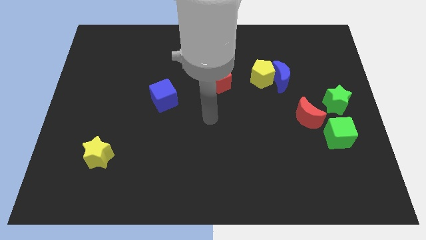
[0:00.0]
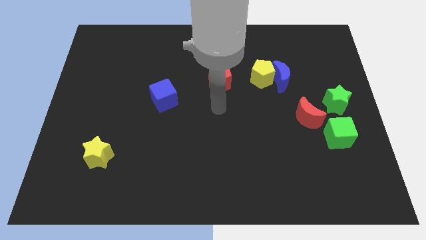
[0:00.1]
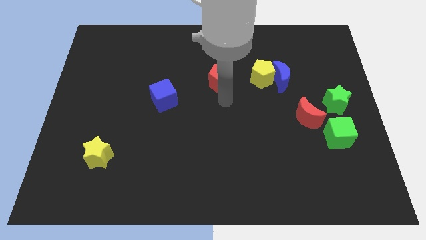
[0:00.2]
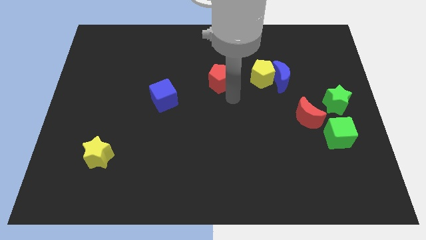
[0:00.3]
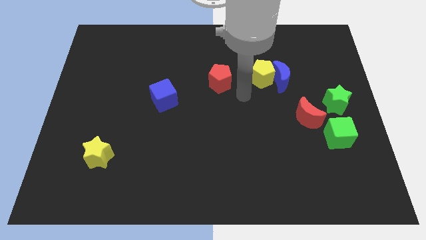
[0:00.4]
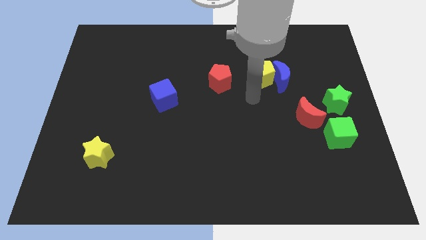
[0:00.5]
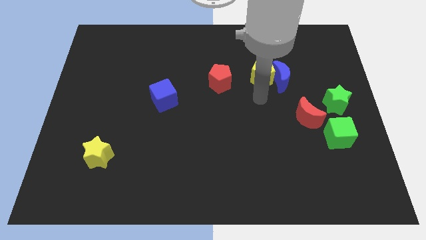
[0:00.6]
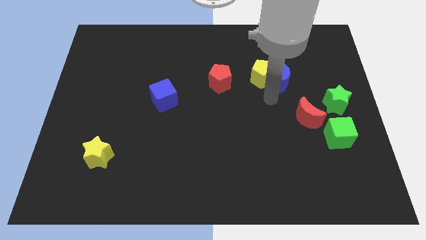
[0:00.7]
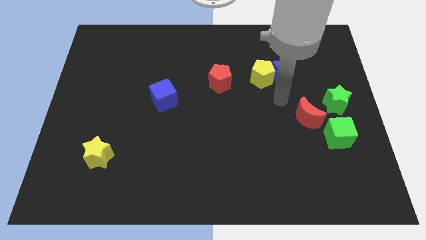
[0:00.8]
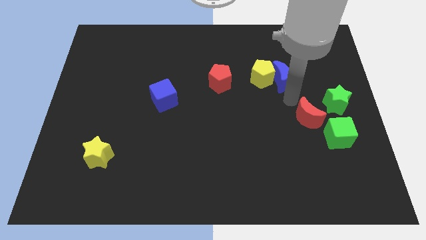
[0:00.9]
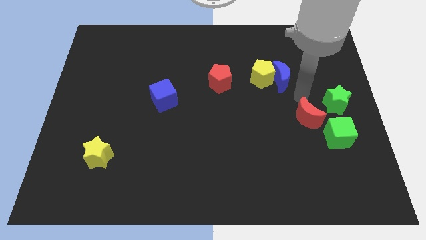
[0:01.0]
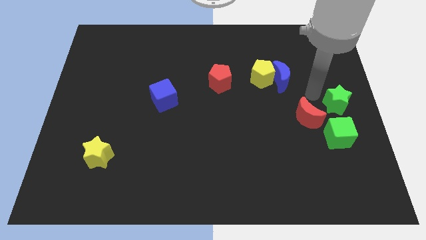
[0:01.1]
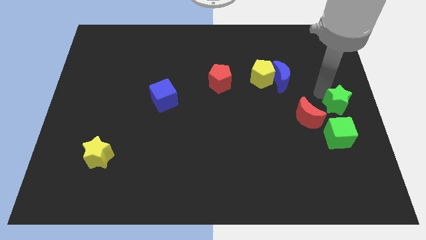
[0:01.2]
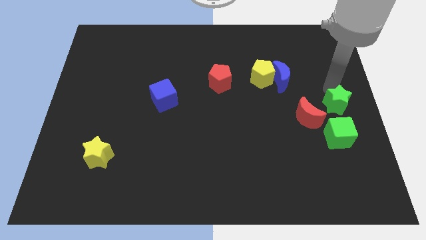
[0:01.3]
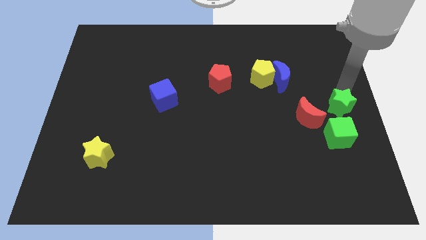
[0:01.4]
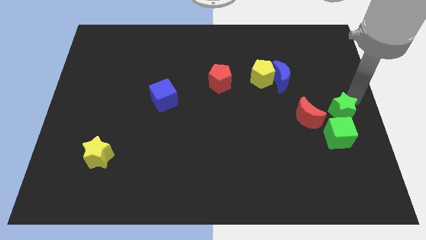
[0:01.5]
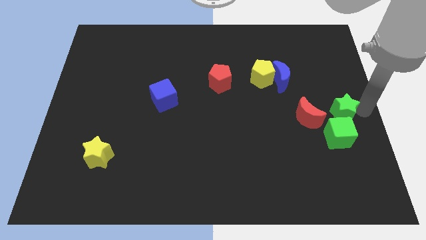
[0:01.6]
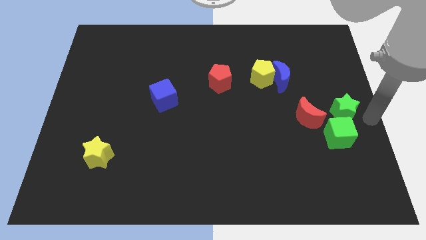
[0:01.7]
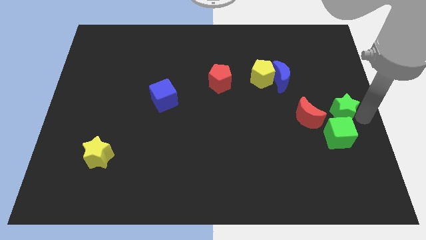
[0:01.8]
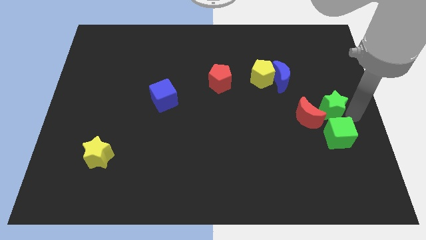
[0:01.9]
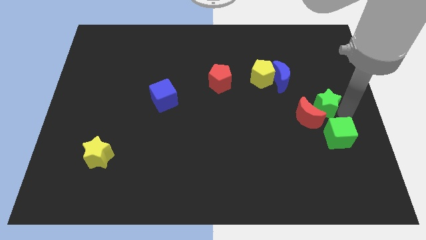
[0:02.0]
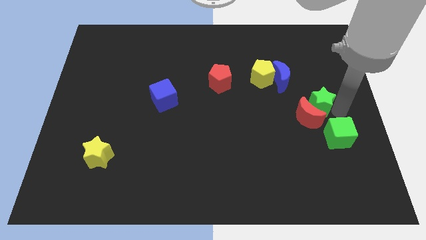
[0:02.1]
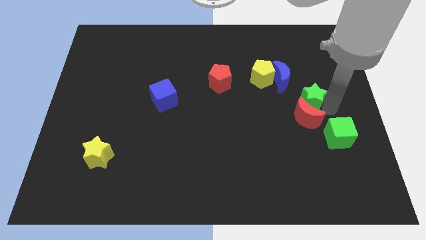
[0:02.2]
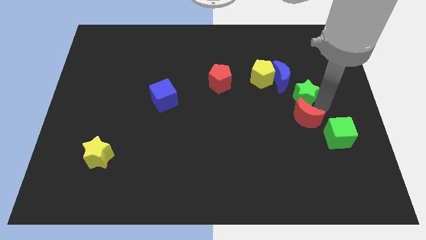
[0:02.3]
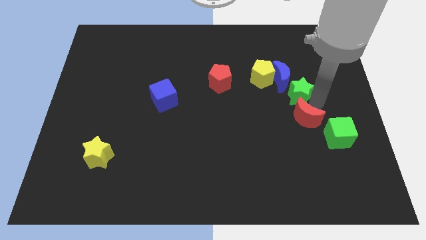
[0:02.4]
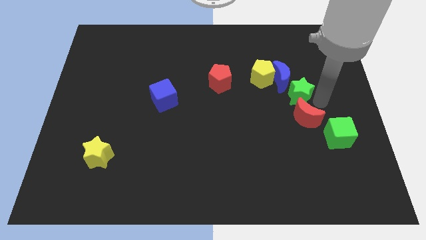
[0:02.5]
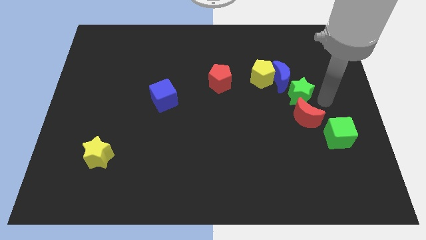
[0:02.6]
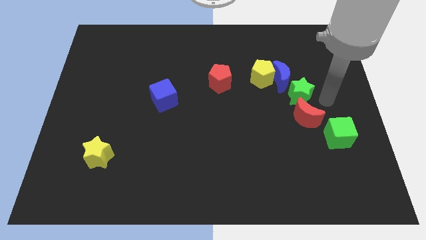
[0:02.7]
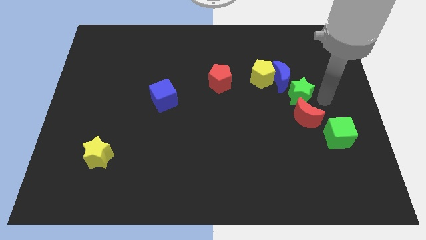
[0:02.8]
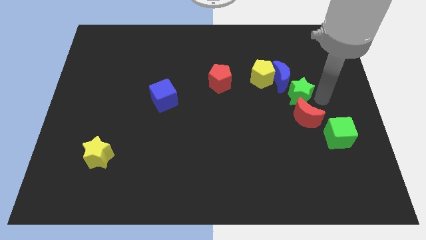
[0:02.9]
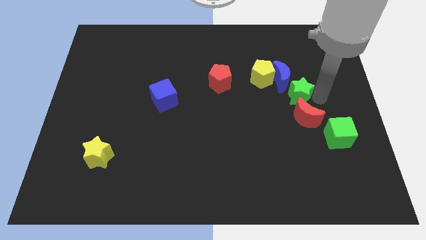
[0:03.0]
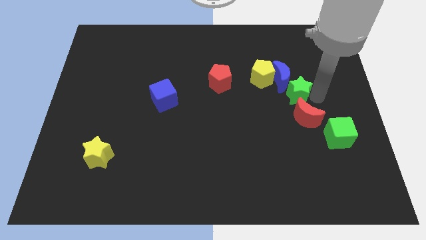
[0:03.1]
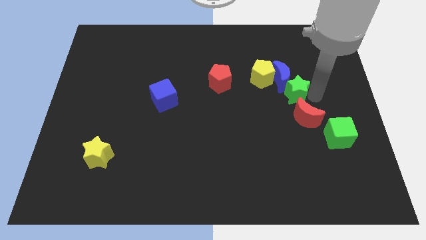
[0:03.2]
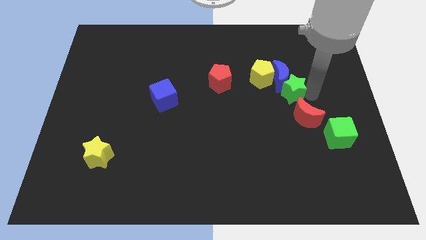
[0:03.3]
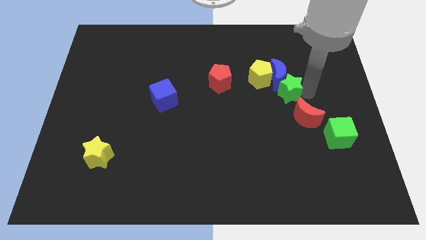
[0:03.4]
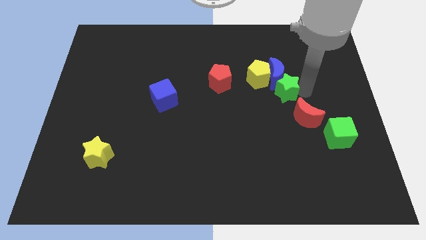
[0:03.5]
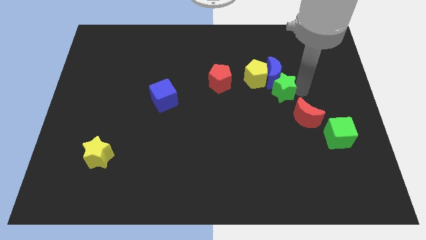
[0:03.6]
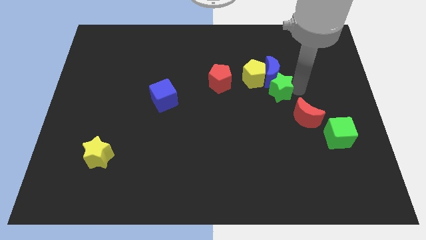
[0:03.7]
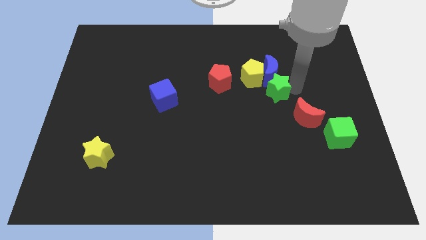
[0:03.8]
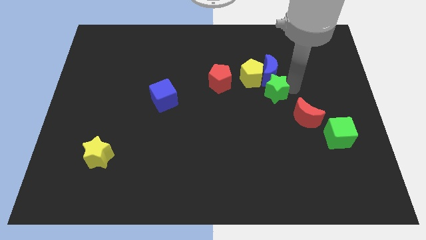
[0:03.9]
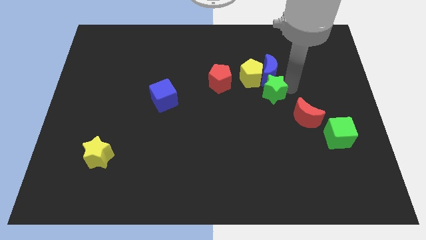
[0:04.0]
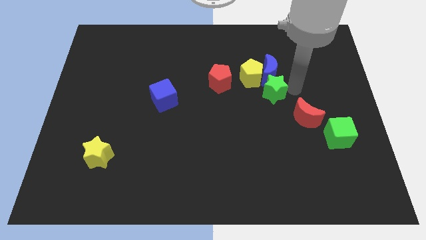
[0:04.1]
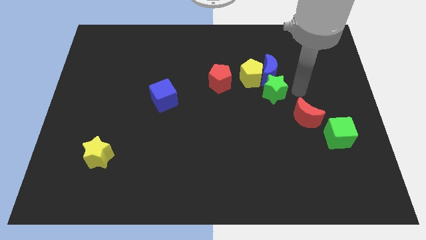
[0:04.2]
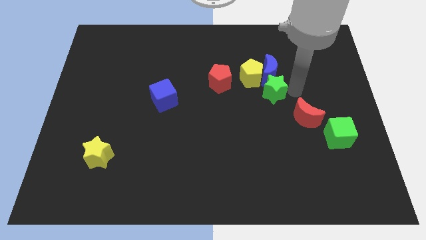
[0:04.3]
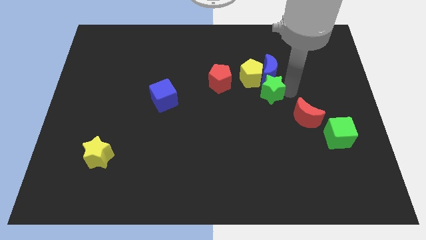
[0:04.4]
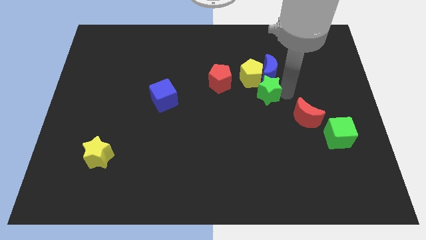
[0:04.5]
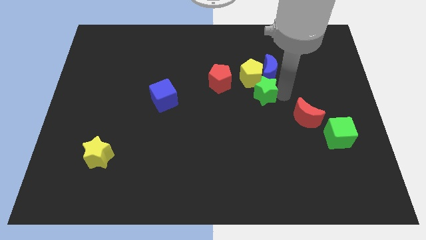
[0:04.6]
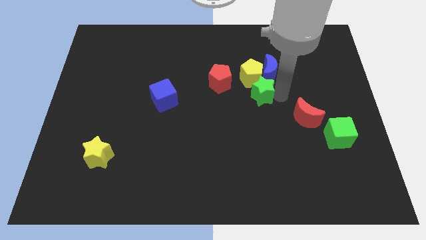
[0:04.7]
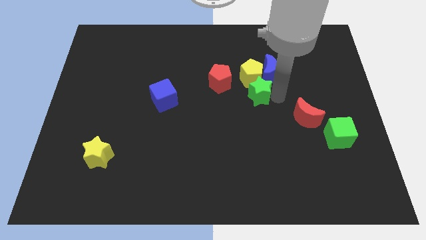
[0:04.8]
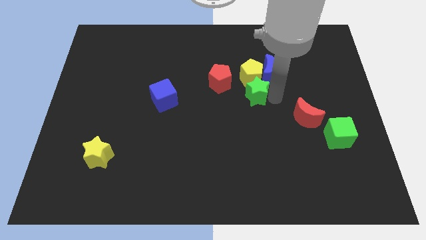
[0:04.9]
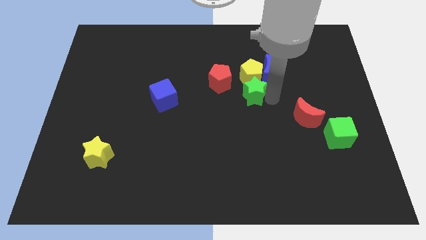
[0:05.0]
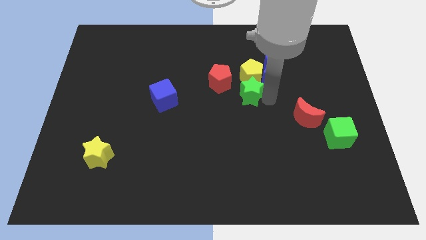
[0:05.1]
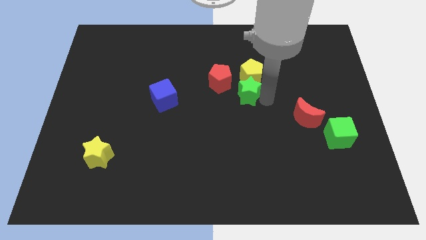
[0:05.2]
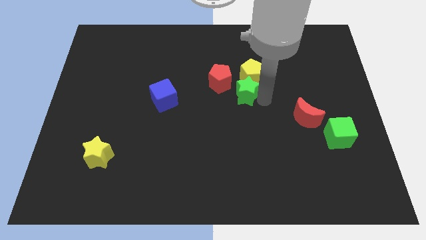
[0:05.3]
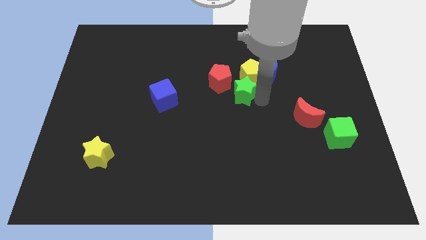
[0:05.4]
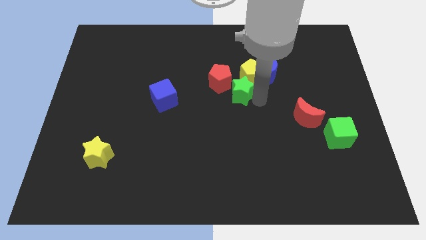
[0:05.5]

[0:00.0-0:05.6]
put the green star next to the red pentagon

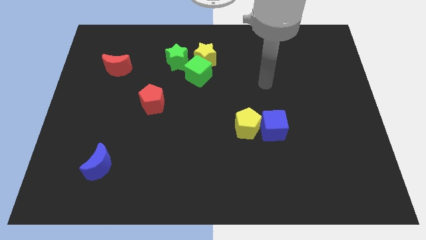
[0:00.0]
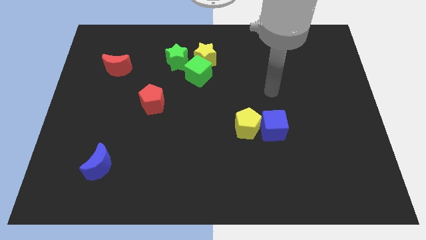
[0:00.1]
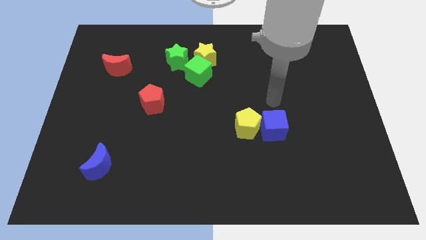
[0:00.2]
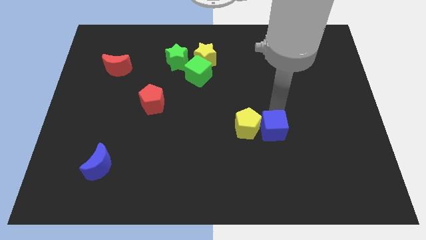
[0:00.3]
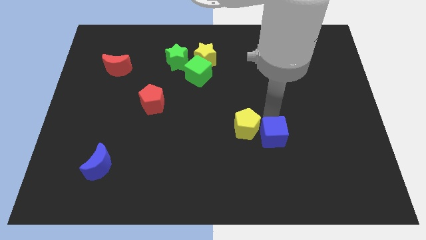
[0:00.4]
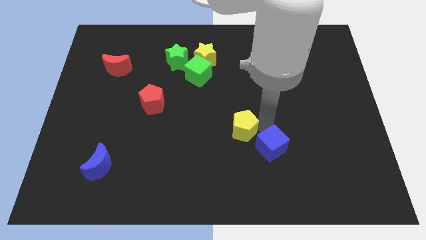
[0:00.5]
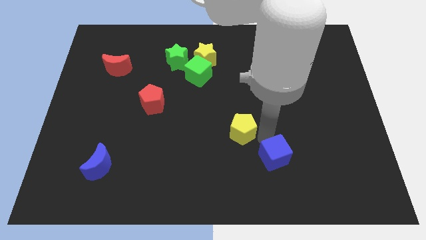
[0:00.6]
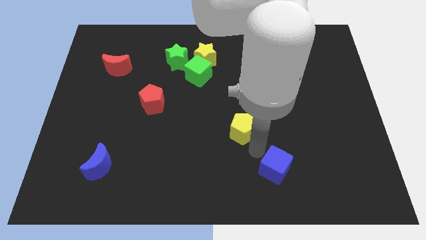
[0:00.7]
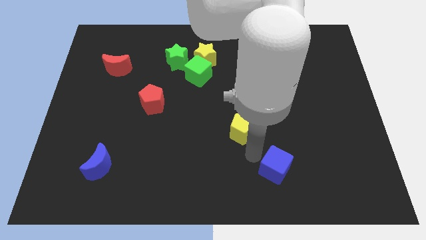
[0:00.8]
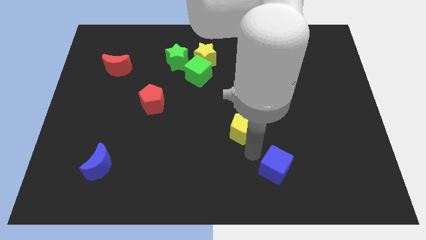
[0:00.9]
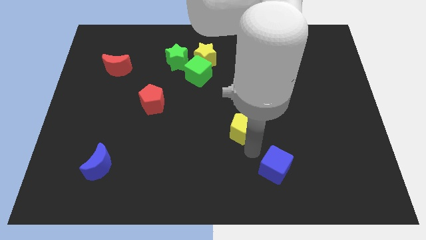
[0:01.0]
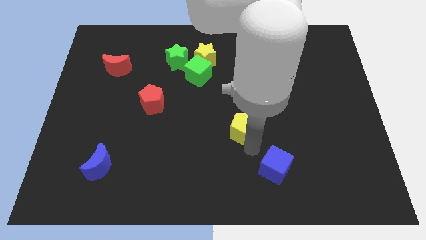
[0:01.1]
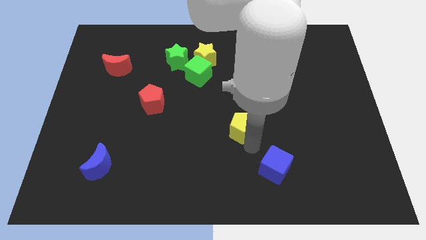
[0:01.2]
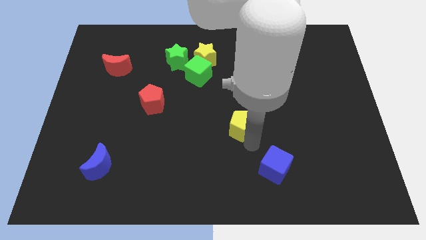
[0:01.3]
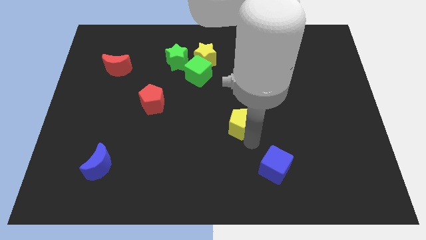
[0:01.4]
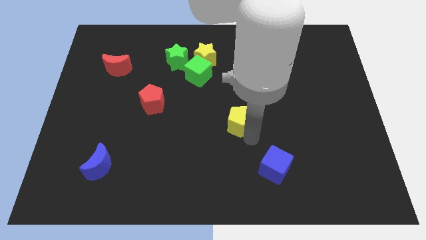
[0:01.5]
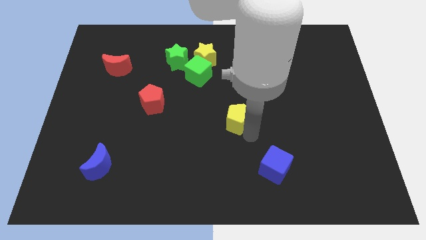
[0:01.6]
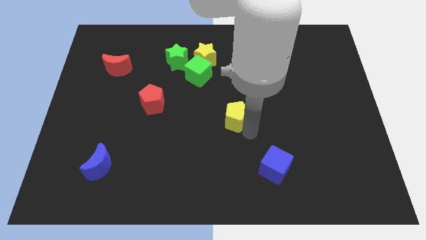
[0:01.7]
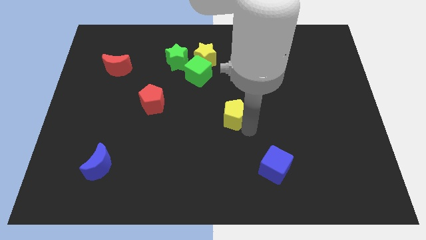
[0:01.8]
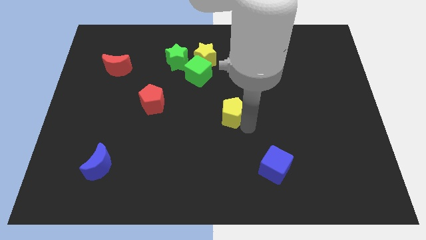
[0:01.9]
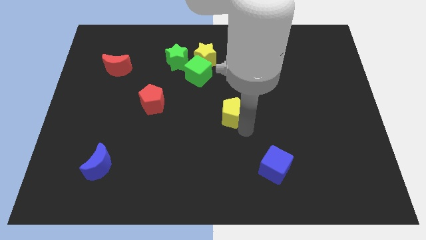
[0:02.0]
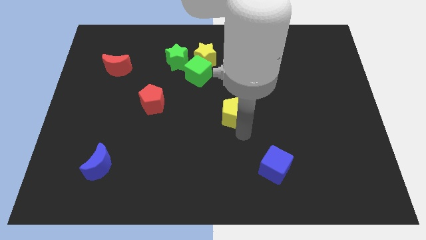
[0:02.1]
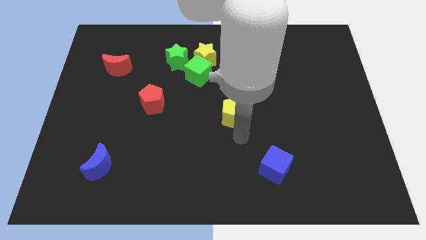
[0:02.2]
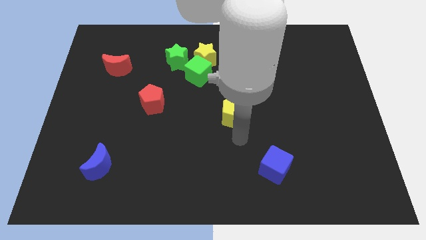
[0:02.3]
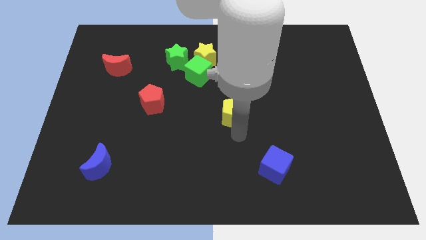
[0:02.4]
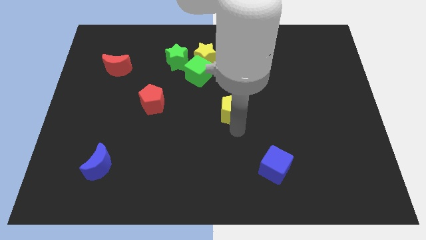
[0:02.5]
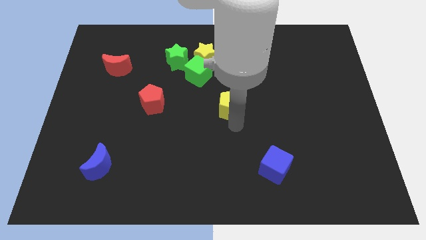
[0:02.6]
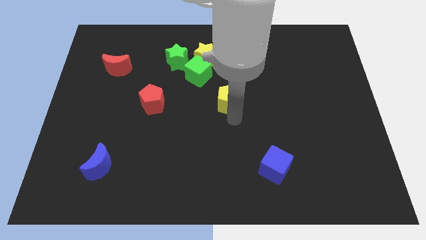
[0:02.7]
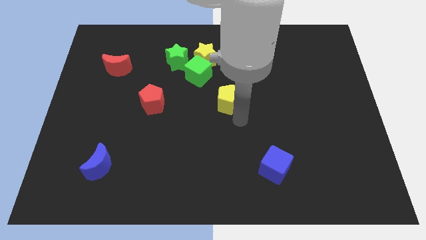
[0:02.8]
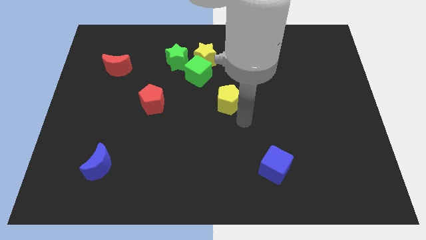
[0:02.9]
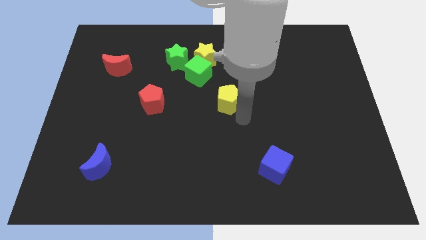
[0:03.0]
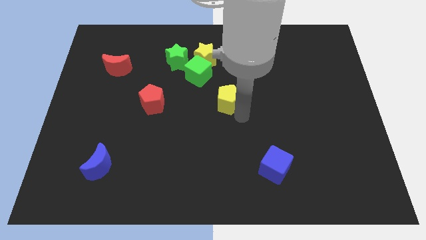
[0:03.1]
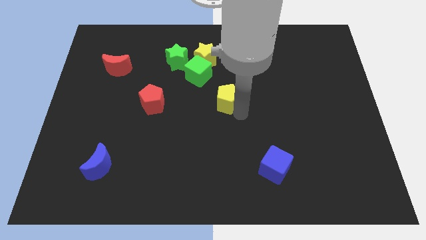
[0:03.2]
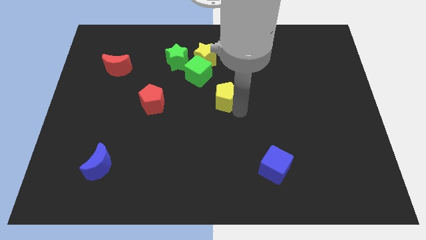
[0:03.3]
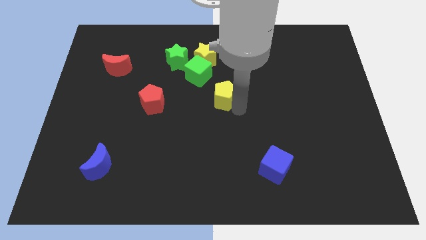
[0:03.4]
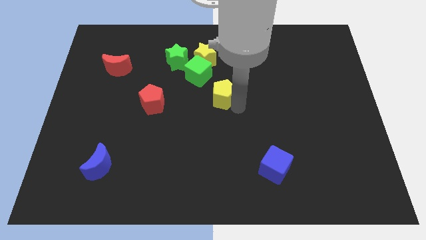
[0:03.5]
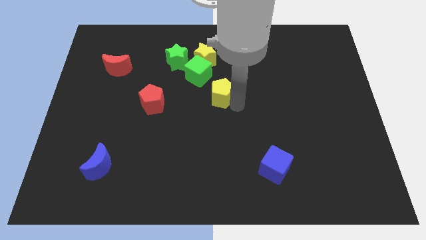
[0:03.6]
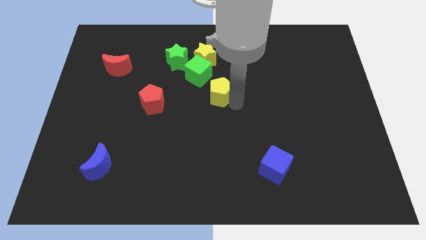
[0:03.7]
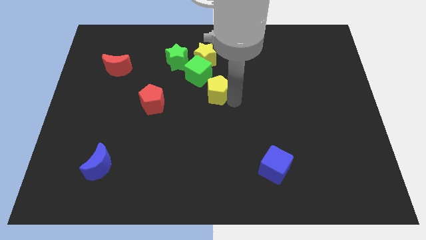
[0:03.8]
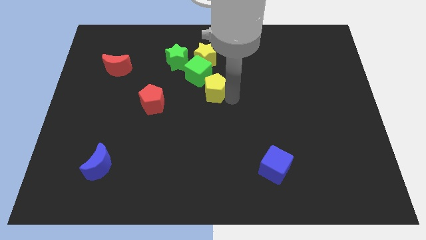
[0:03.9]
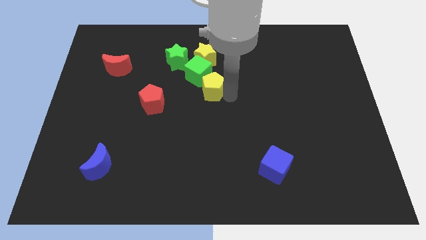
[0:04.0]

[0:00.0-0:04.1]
put the yellow pentagon towards the green cube
